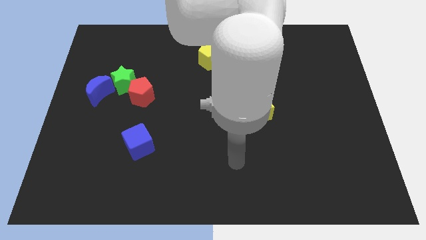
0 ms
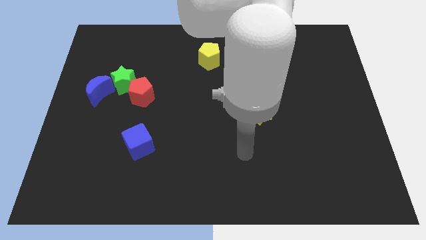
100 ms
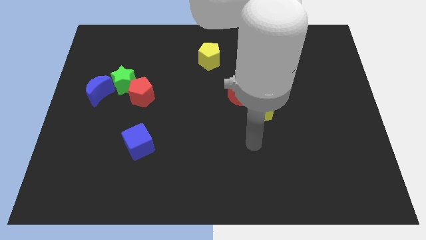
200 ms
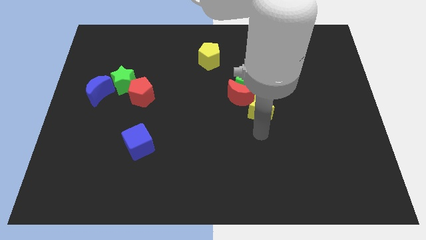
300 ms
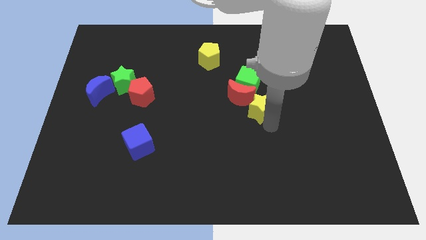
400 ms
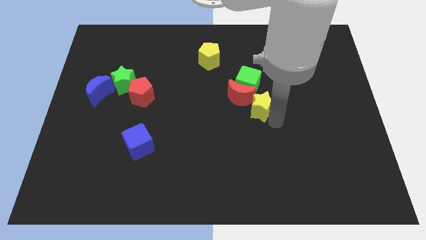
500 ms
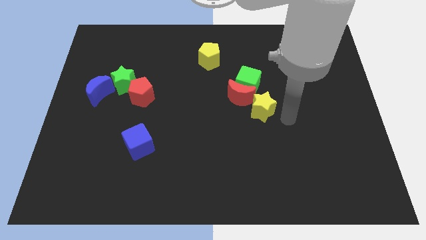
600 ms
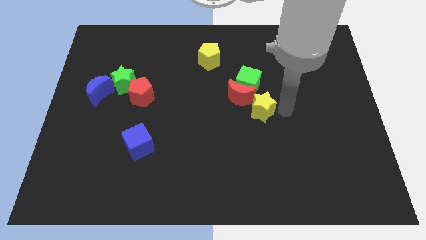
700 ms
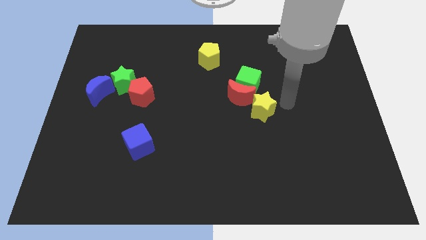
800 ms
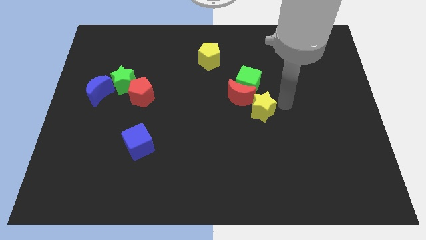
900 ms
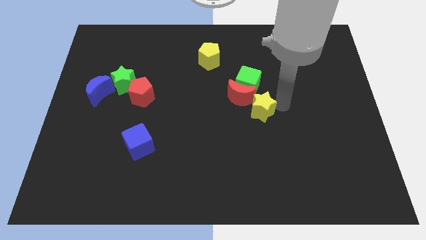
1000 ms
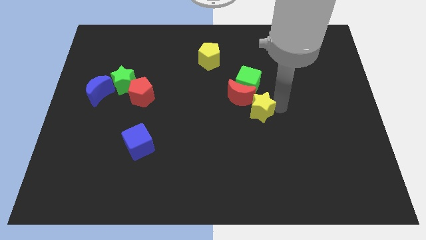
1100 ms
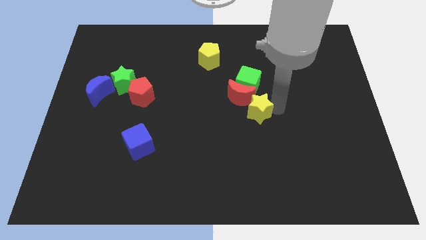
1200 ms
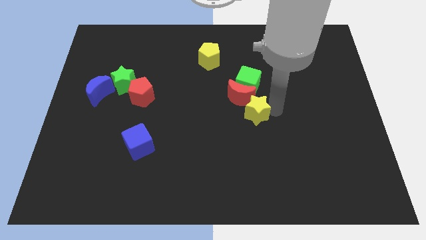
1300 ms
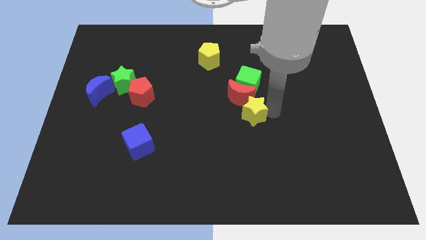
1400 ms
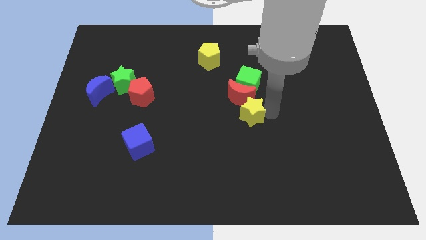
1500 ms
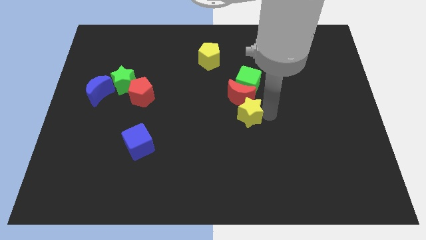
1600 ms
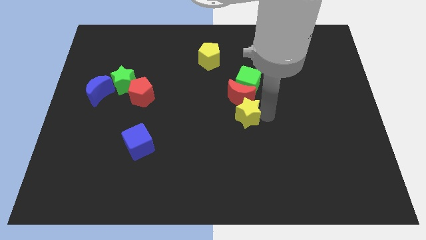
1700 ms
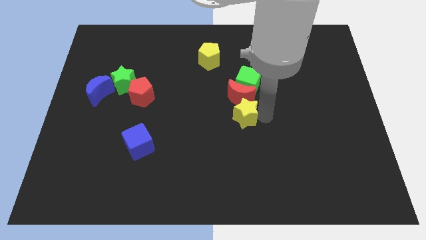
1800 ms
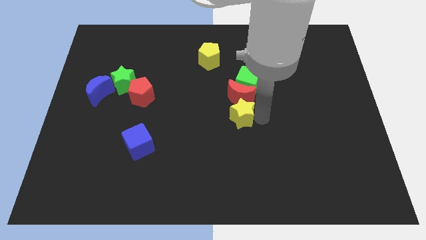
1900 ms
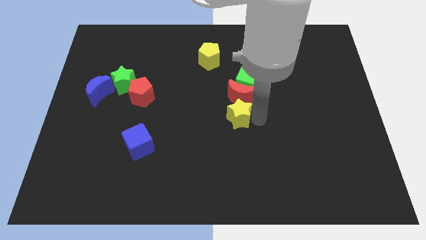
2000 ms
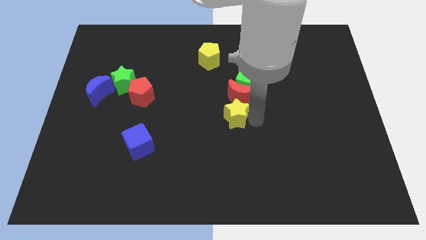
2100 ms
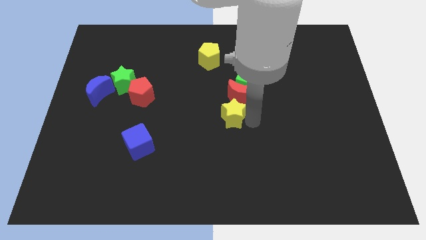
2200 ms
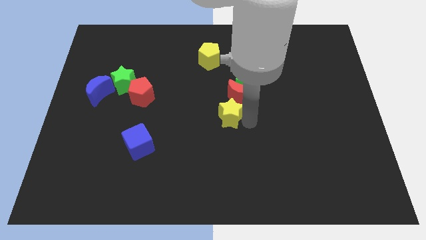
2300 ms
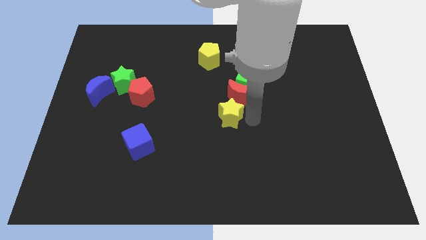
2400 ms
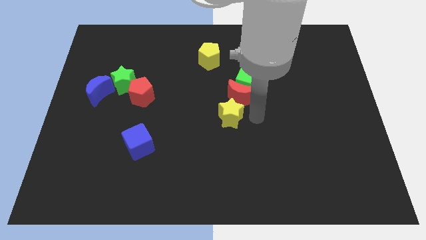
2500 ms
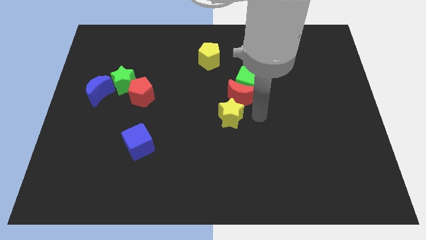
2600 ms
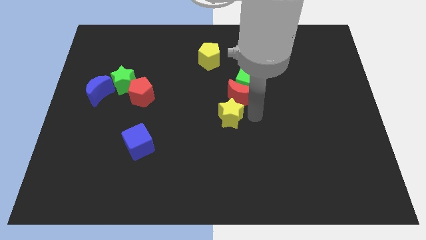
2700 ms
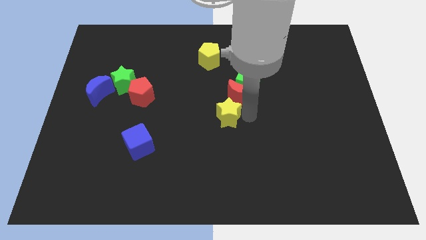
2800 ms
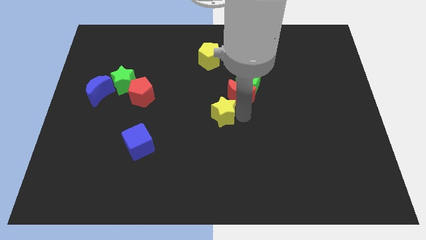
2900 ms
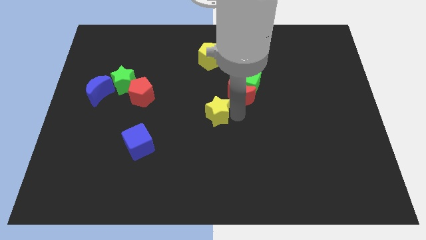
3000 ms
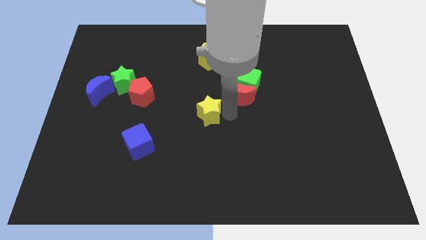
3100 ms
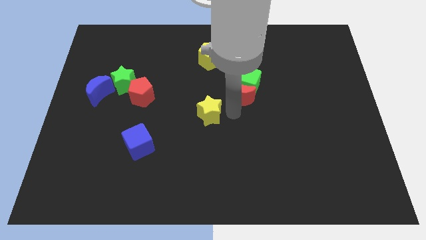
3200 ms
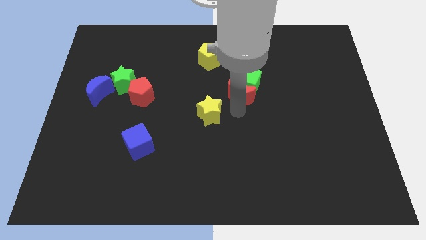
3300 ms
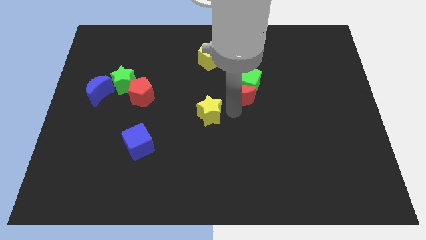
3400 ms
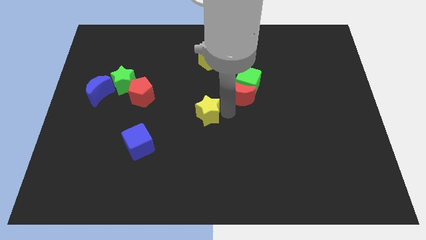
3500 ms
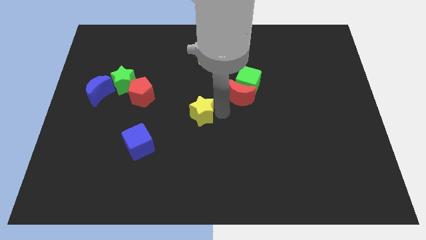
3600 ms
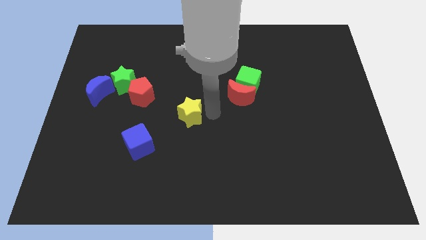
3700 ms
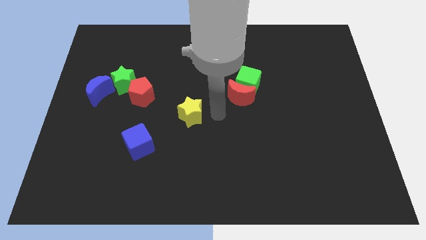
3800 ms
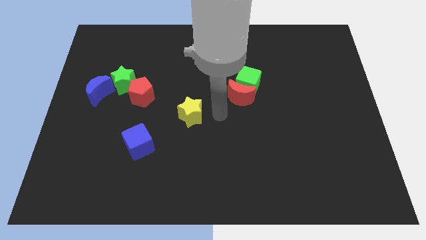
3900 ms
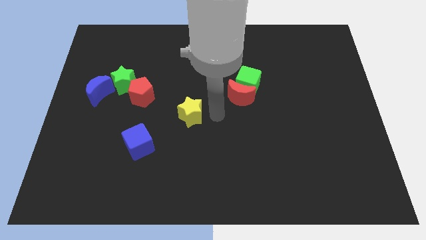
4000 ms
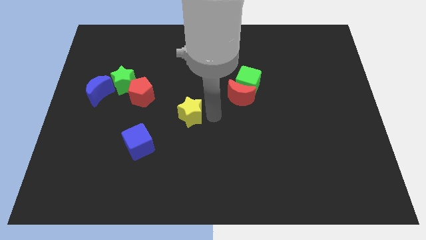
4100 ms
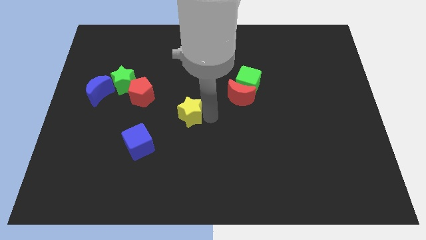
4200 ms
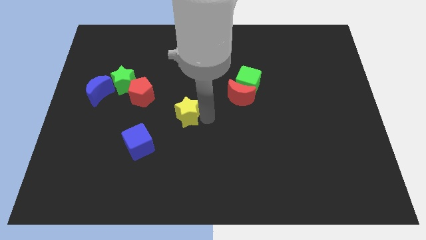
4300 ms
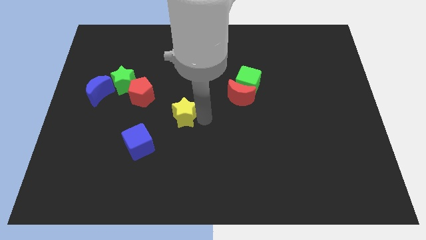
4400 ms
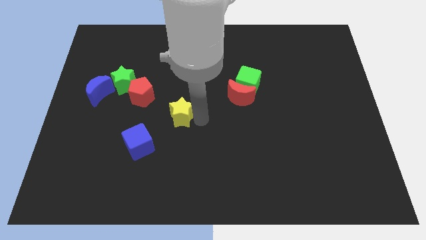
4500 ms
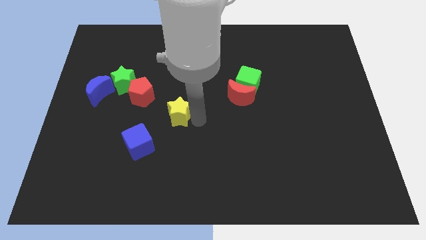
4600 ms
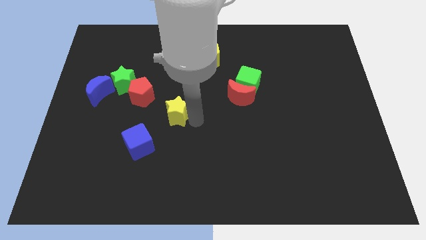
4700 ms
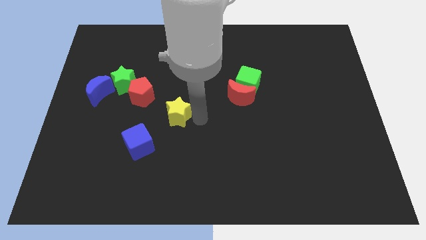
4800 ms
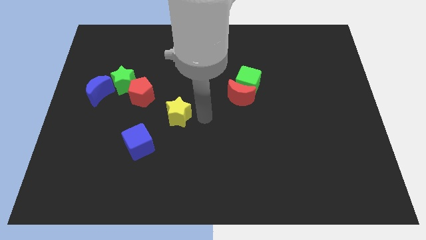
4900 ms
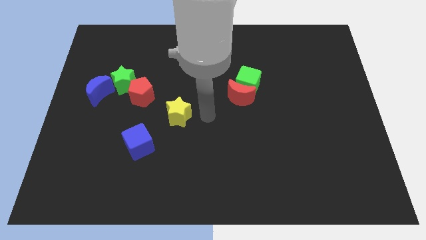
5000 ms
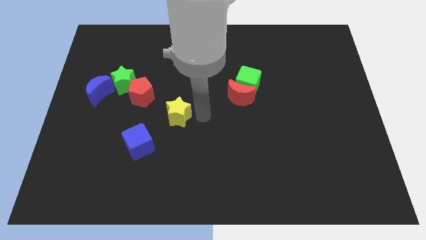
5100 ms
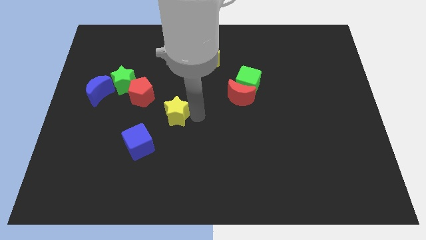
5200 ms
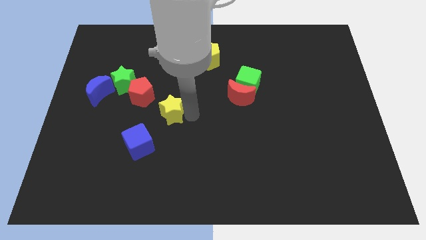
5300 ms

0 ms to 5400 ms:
push the yellow star left

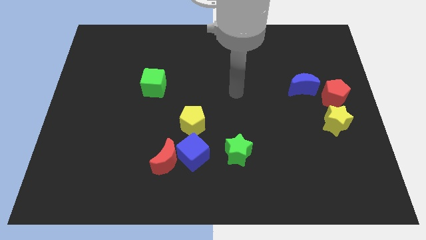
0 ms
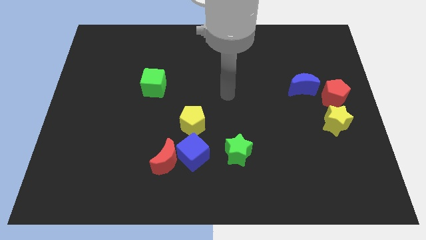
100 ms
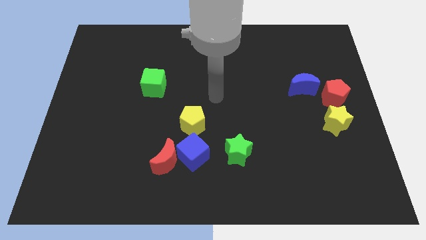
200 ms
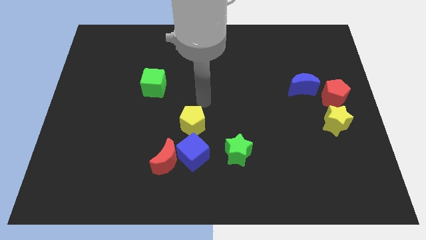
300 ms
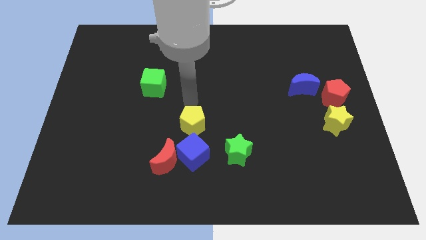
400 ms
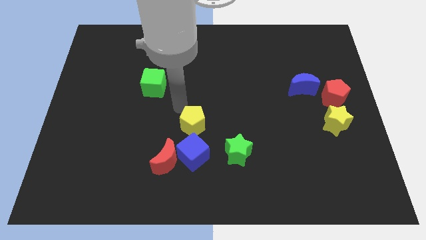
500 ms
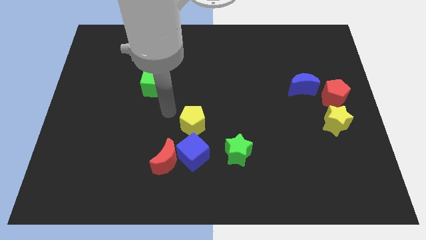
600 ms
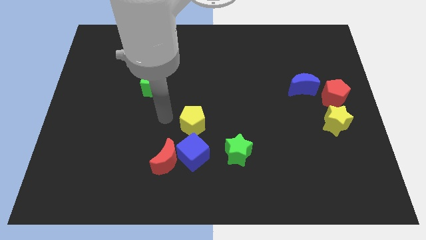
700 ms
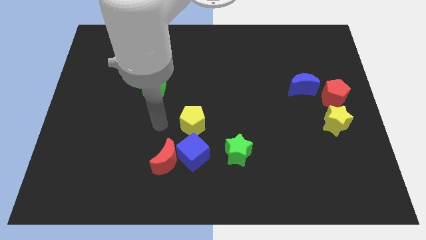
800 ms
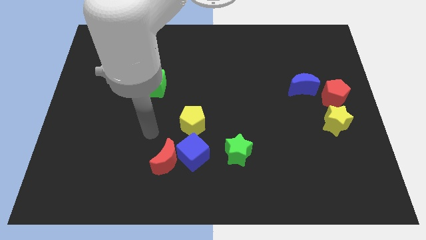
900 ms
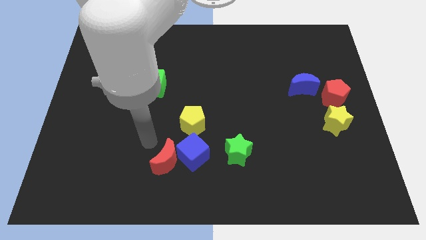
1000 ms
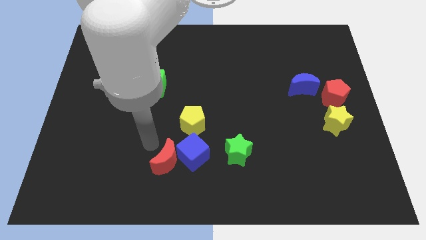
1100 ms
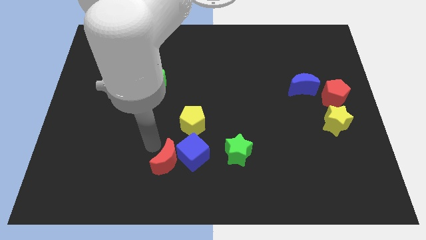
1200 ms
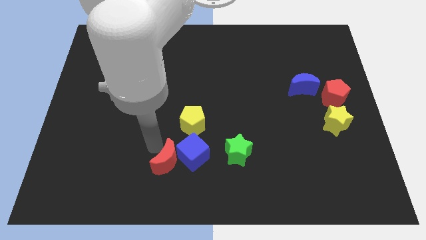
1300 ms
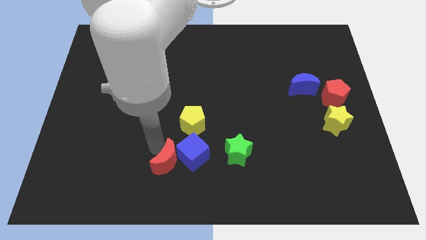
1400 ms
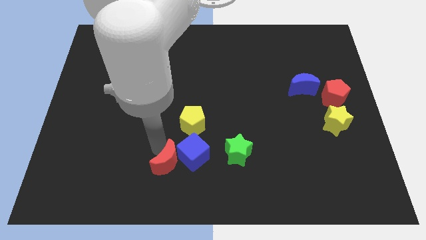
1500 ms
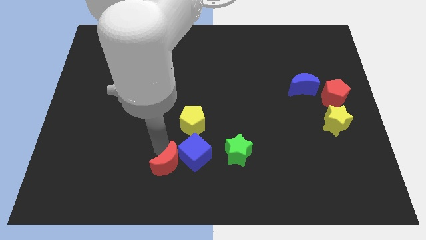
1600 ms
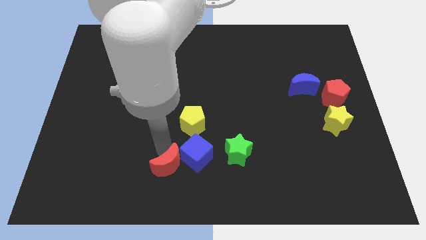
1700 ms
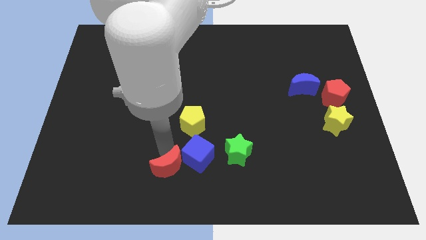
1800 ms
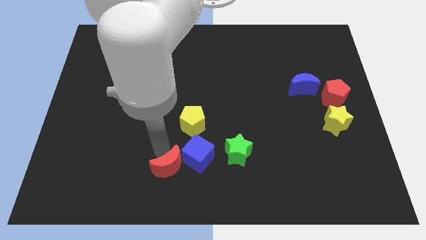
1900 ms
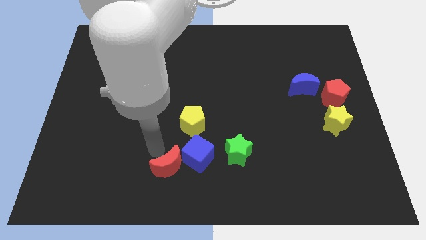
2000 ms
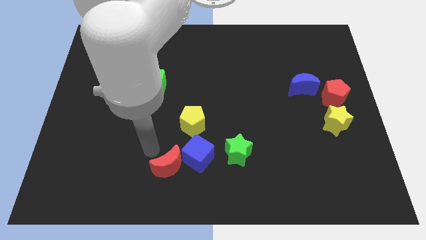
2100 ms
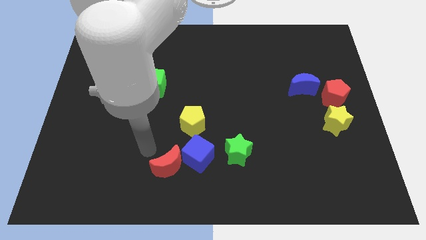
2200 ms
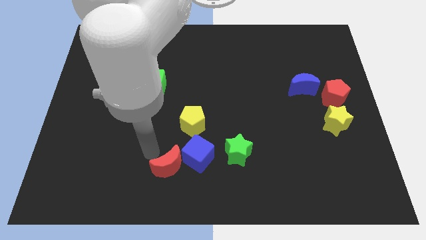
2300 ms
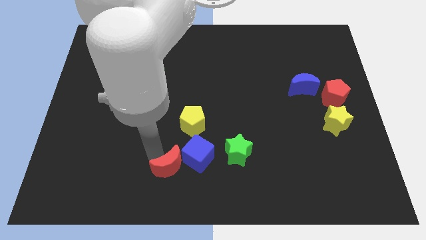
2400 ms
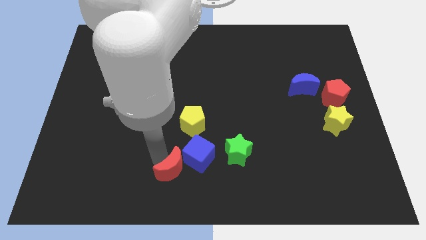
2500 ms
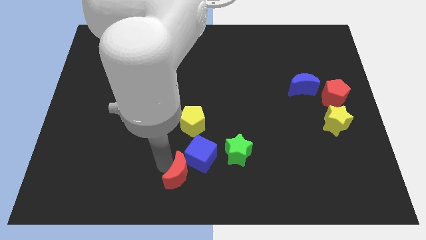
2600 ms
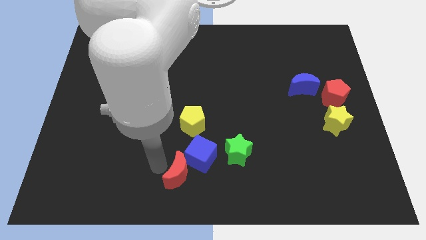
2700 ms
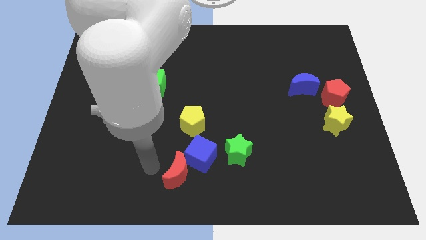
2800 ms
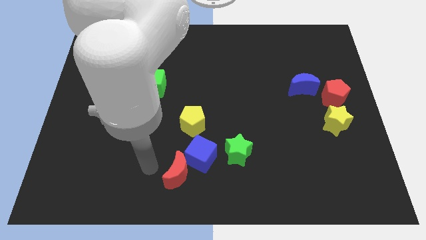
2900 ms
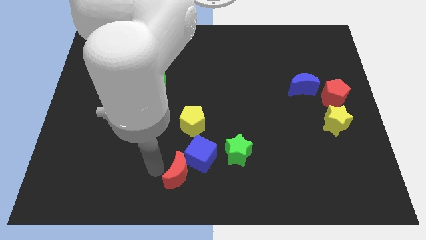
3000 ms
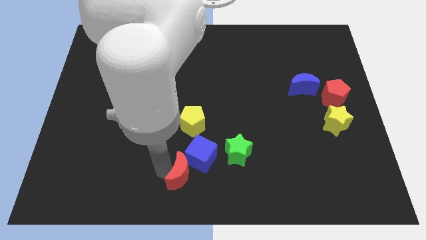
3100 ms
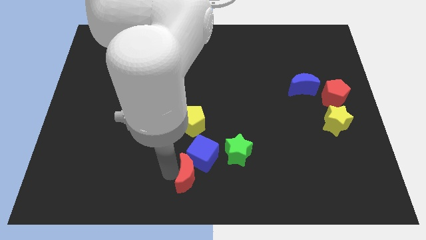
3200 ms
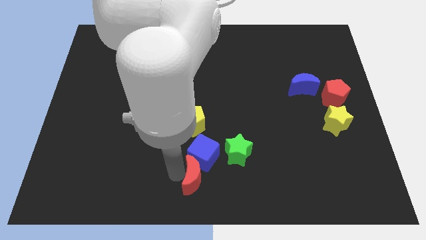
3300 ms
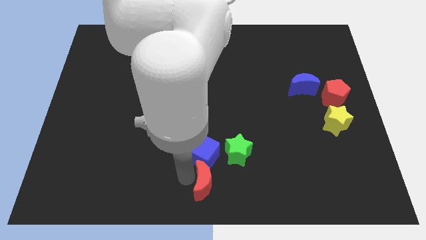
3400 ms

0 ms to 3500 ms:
push the red moon slightly right
